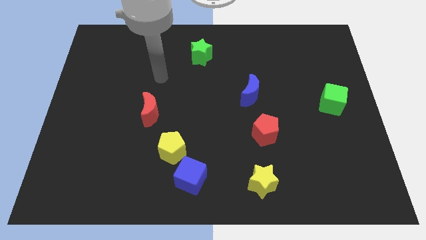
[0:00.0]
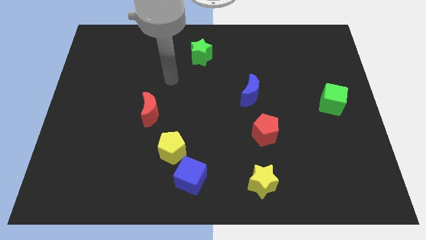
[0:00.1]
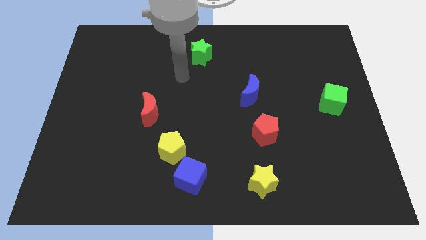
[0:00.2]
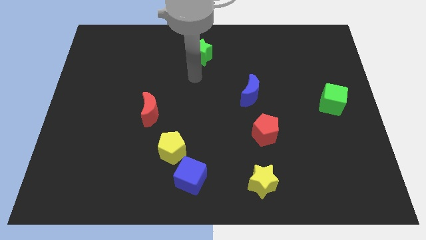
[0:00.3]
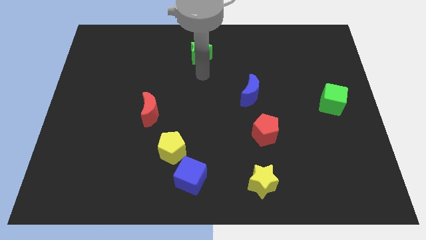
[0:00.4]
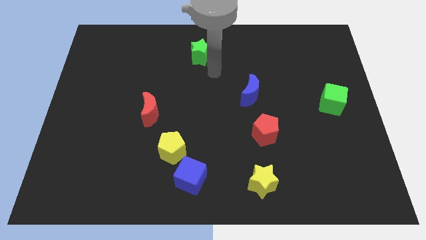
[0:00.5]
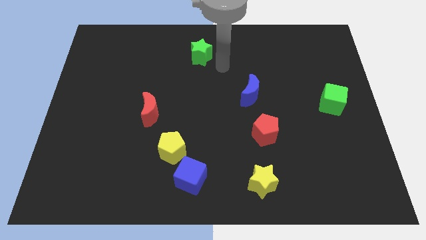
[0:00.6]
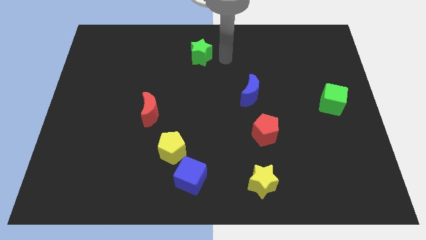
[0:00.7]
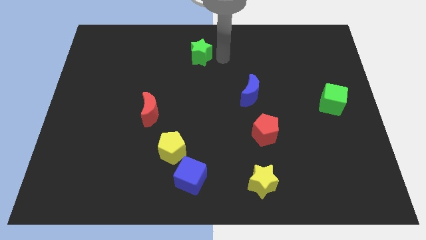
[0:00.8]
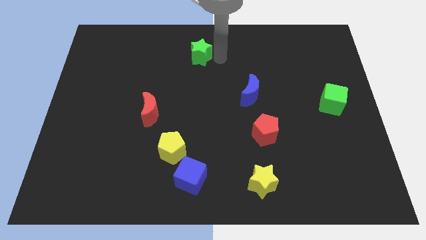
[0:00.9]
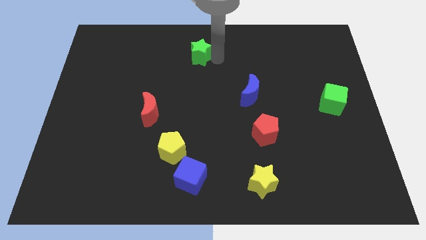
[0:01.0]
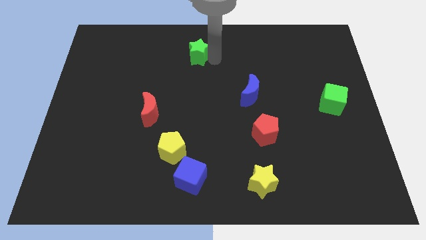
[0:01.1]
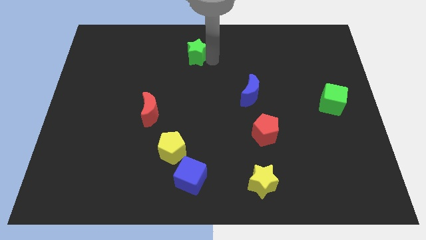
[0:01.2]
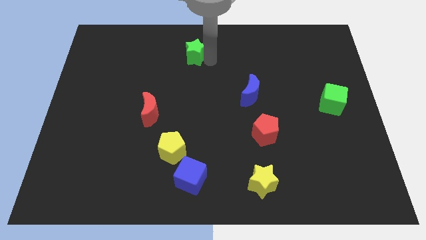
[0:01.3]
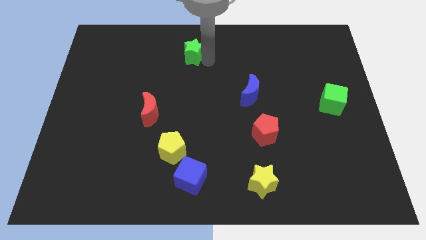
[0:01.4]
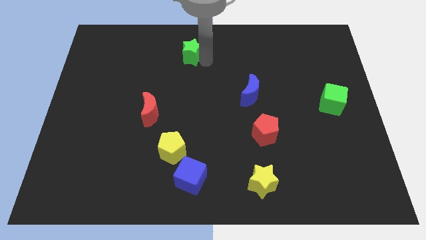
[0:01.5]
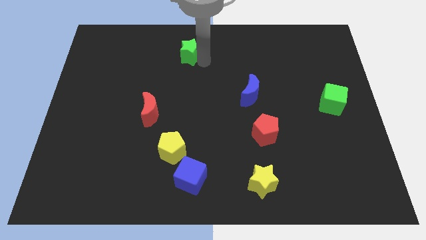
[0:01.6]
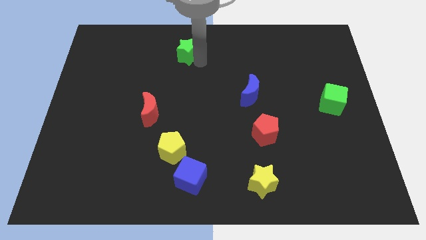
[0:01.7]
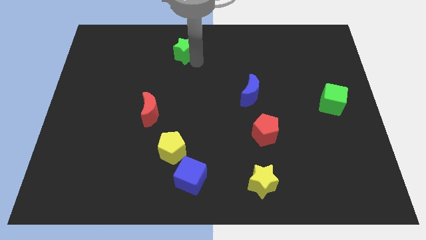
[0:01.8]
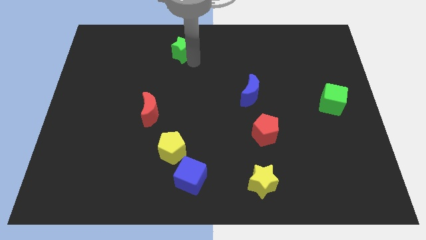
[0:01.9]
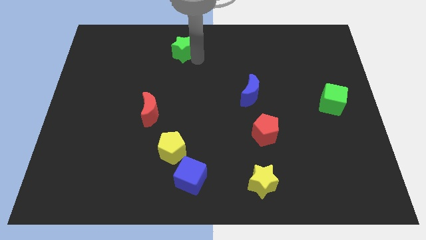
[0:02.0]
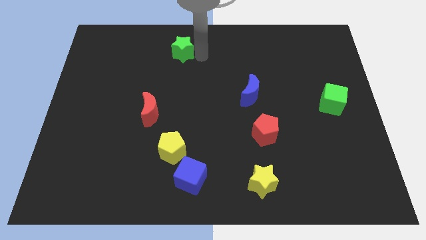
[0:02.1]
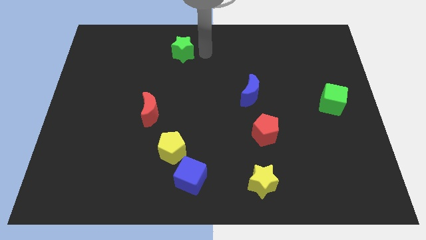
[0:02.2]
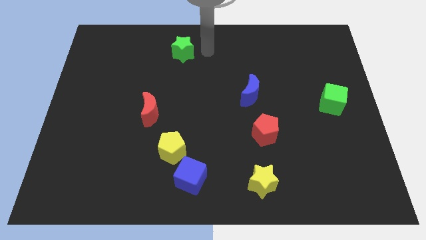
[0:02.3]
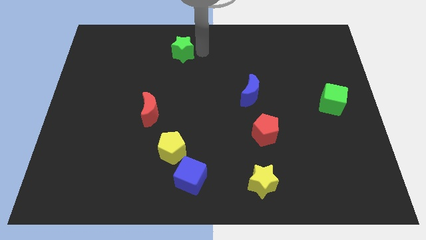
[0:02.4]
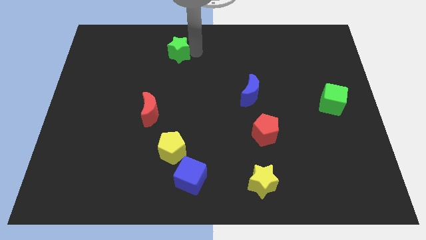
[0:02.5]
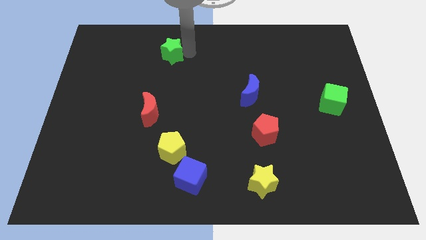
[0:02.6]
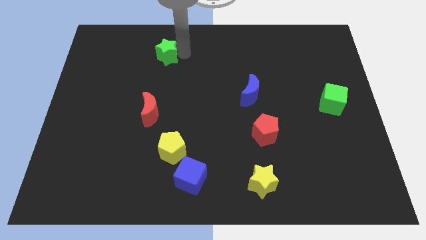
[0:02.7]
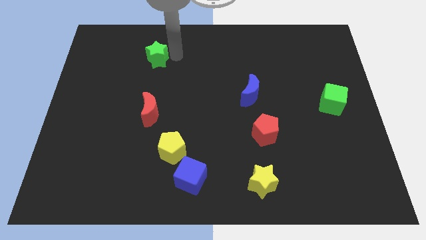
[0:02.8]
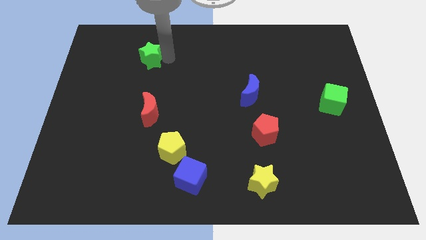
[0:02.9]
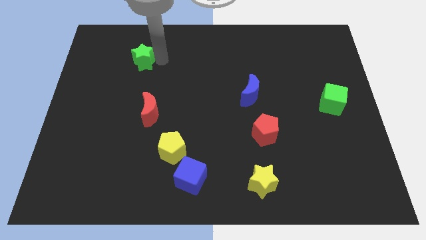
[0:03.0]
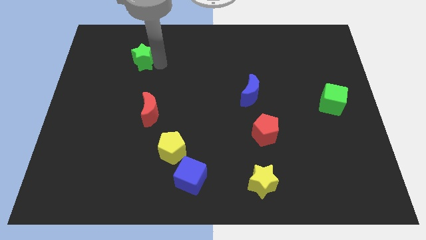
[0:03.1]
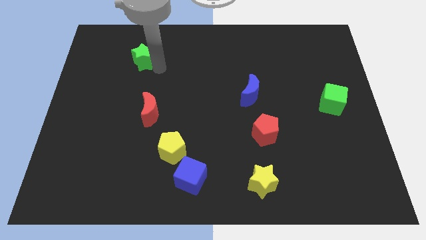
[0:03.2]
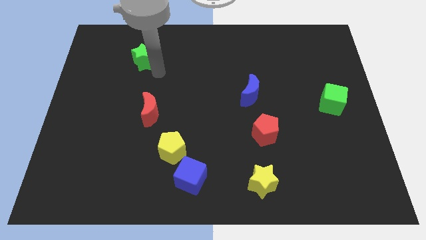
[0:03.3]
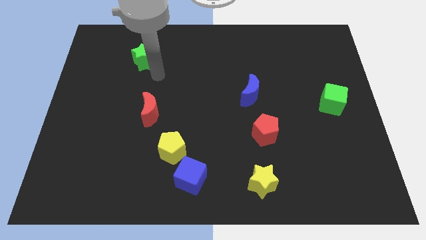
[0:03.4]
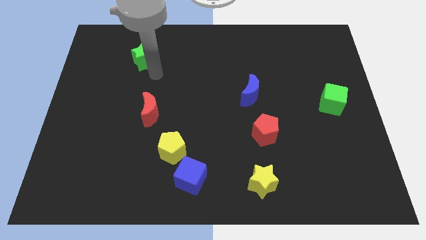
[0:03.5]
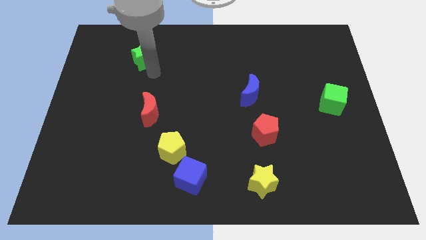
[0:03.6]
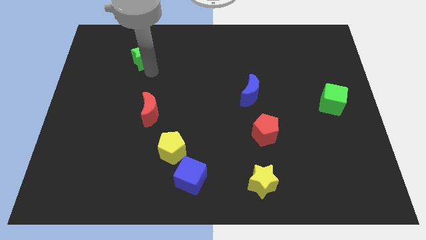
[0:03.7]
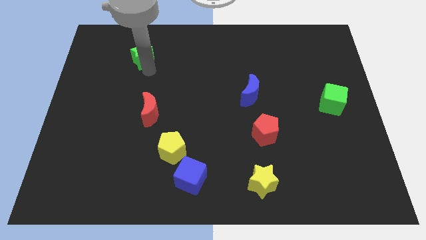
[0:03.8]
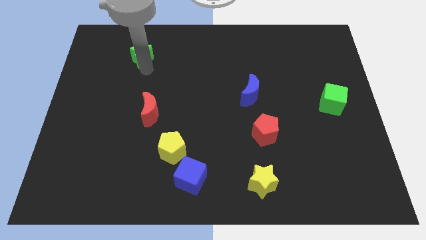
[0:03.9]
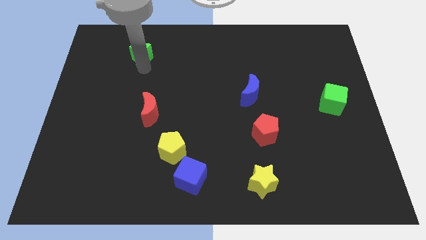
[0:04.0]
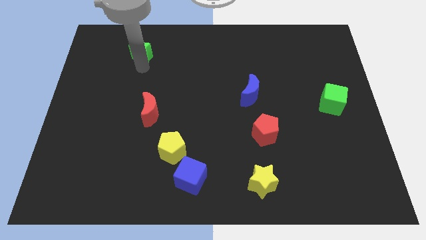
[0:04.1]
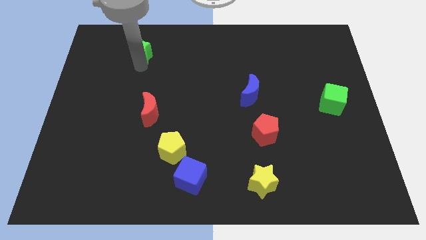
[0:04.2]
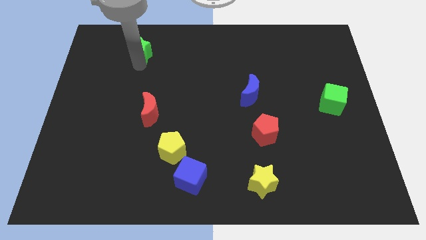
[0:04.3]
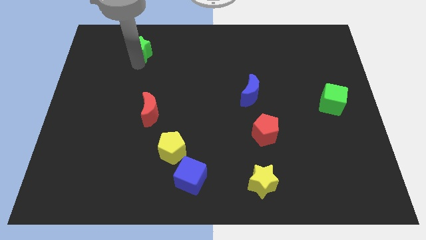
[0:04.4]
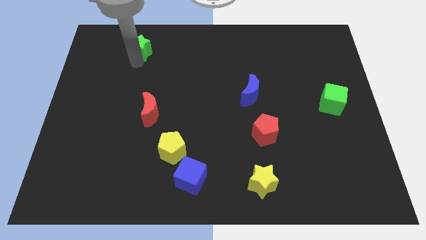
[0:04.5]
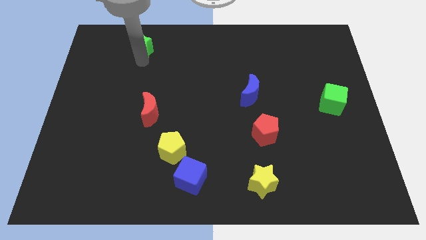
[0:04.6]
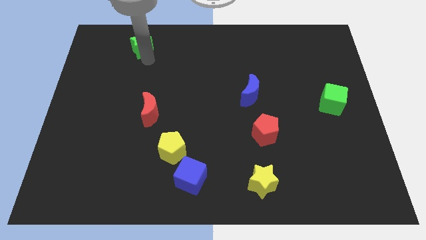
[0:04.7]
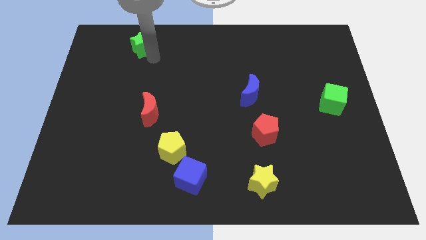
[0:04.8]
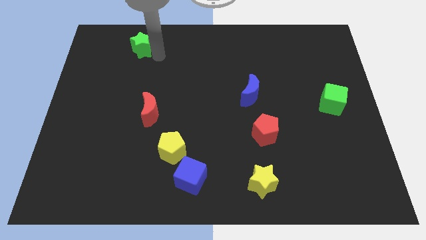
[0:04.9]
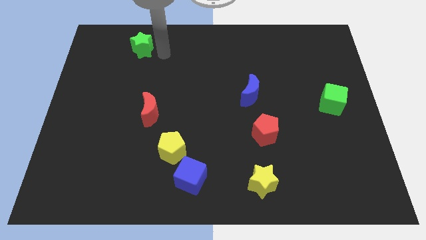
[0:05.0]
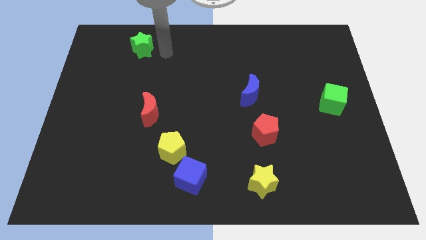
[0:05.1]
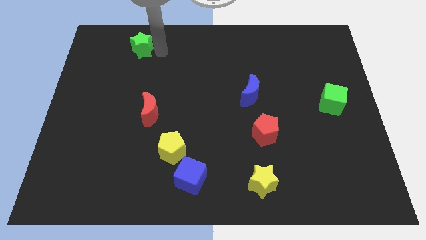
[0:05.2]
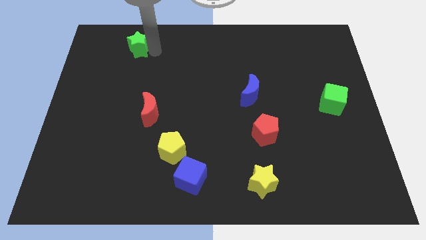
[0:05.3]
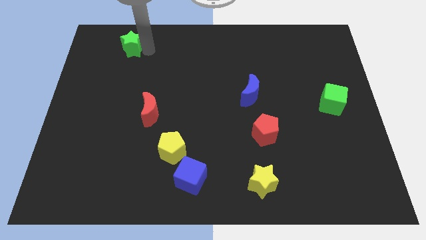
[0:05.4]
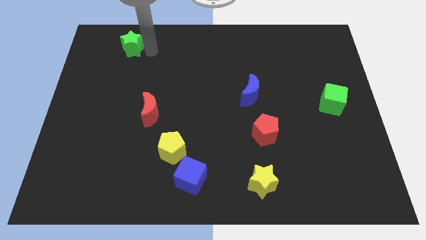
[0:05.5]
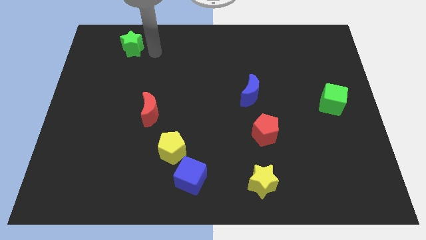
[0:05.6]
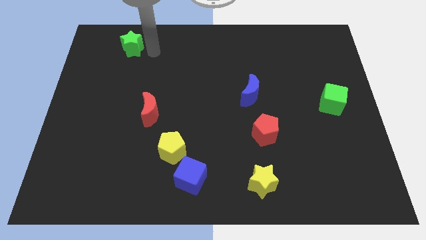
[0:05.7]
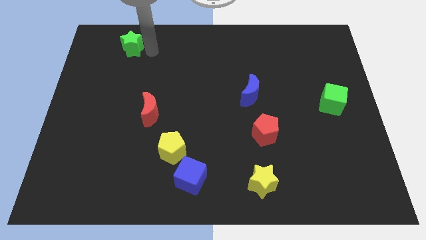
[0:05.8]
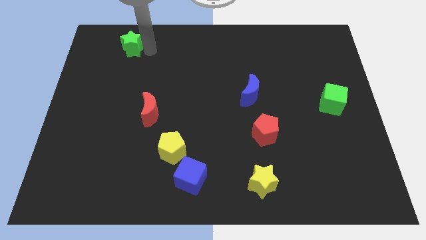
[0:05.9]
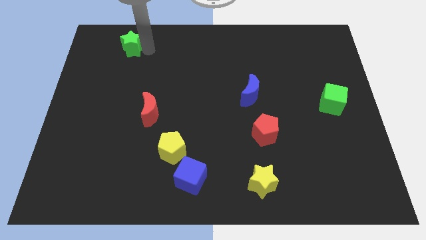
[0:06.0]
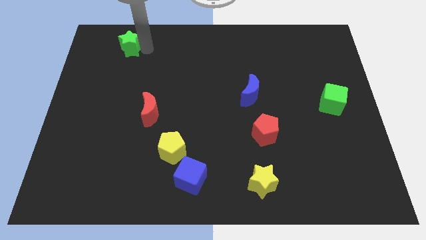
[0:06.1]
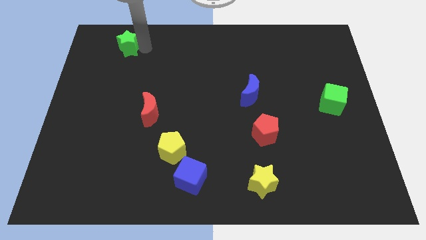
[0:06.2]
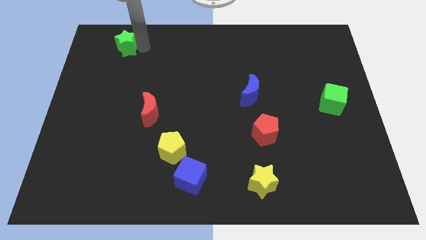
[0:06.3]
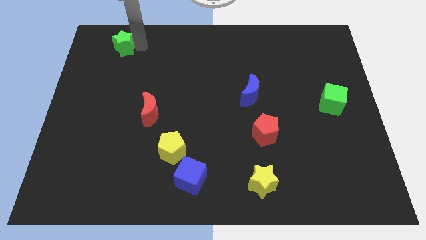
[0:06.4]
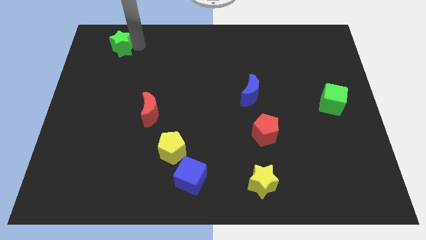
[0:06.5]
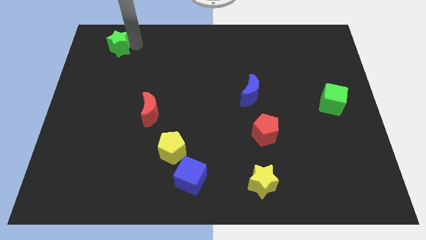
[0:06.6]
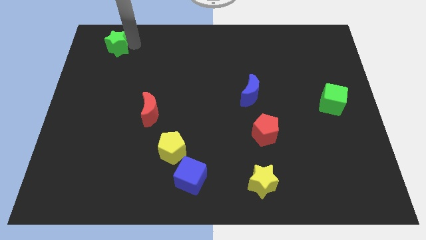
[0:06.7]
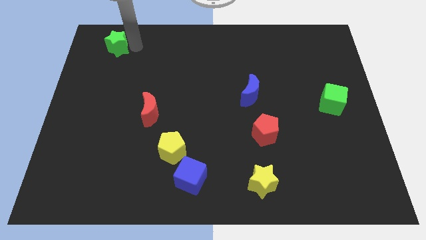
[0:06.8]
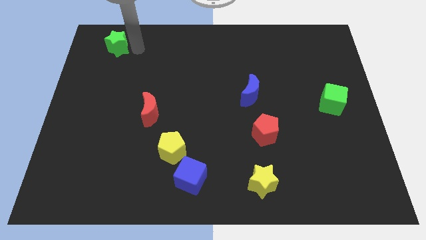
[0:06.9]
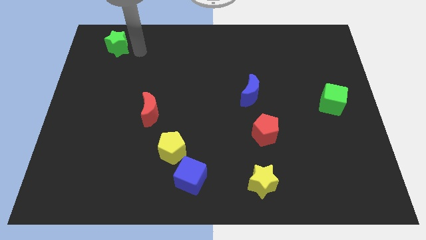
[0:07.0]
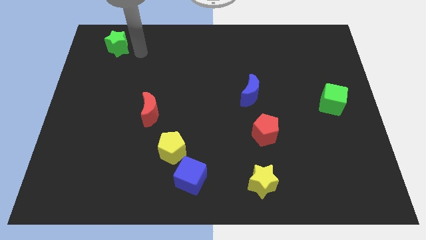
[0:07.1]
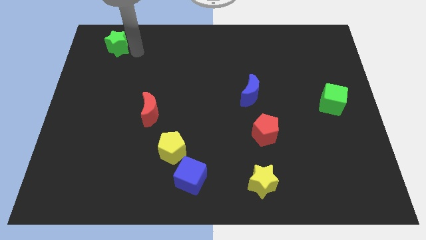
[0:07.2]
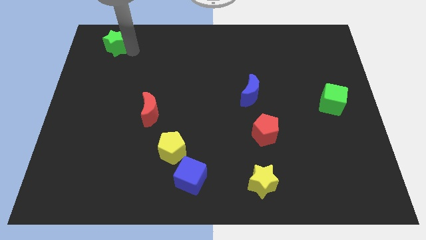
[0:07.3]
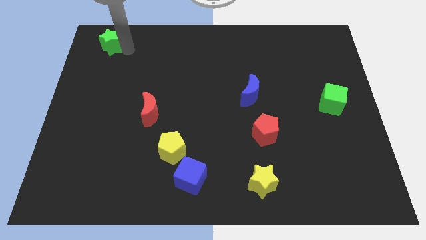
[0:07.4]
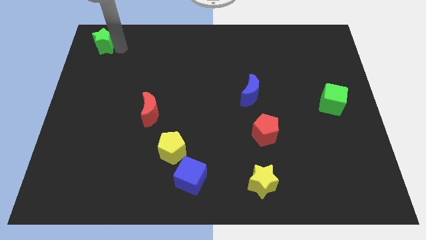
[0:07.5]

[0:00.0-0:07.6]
push the green star to the top left corner
